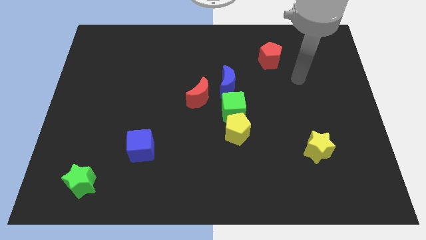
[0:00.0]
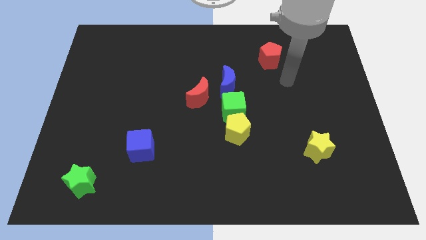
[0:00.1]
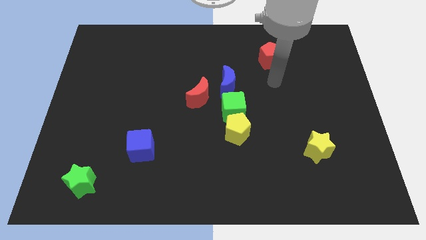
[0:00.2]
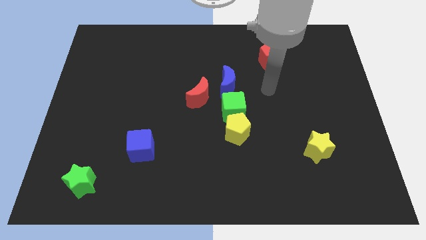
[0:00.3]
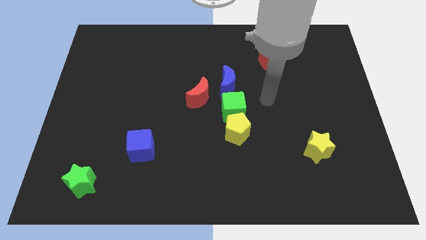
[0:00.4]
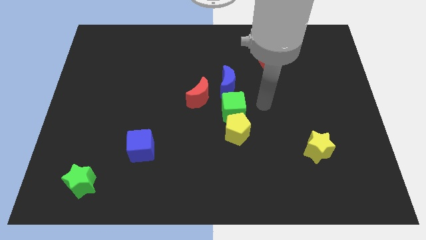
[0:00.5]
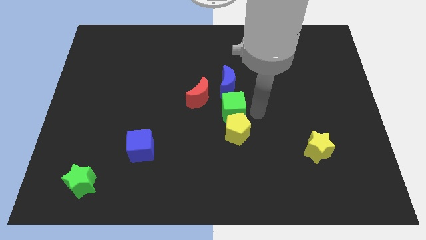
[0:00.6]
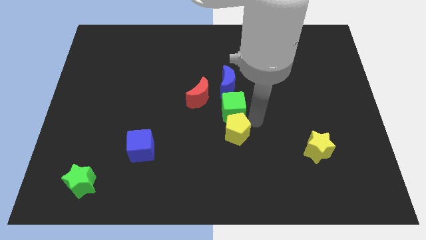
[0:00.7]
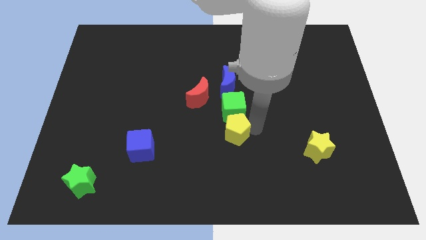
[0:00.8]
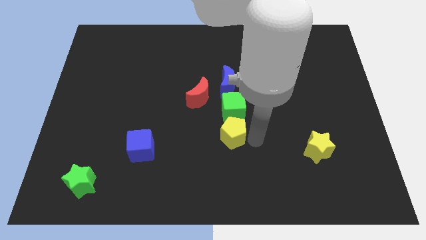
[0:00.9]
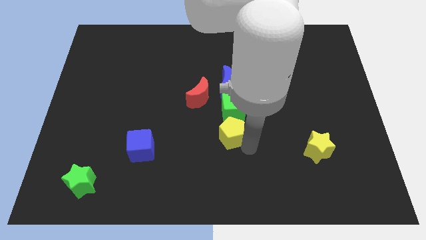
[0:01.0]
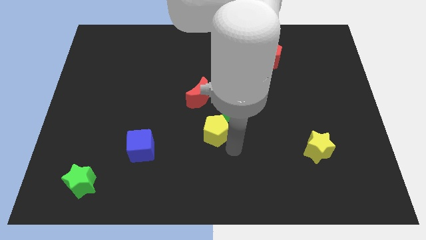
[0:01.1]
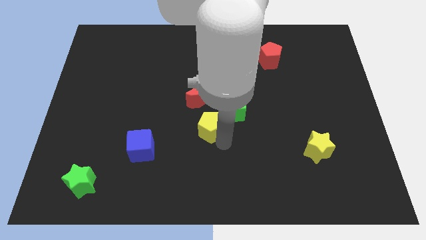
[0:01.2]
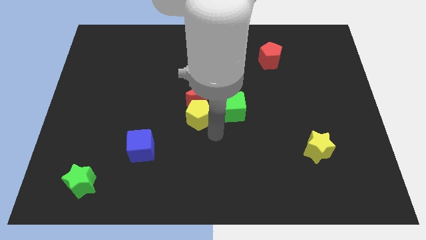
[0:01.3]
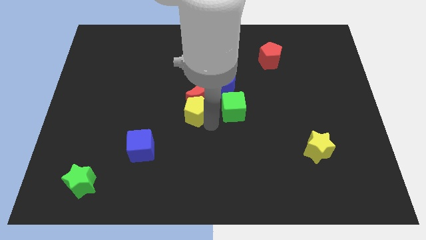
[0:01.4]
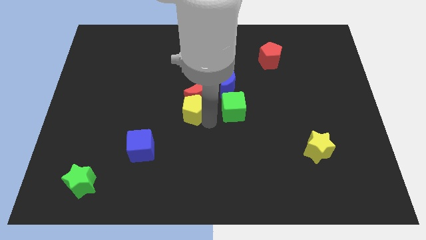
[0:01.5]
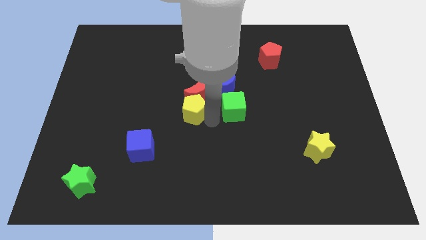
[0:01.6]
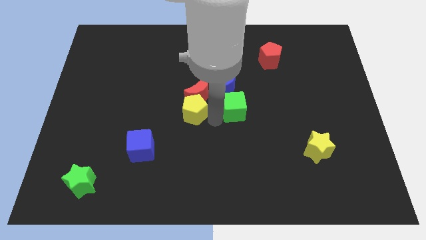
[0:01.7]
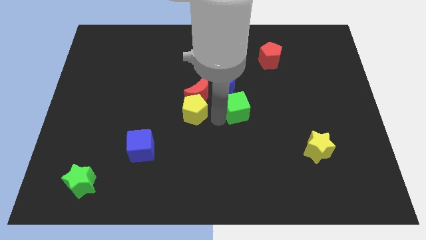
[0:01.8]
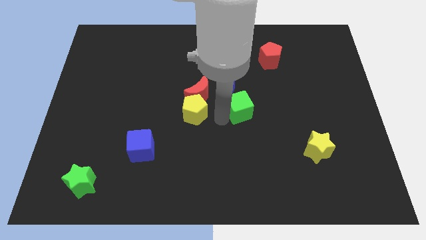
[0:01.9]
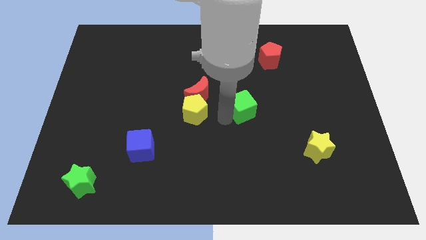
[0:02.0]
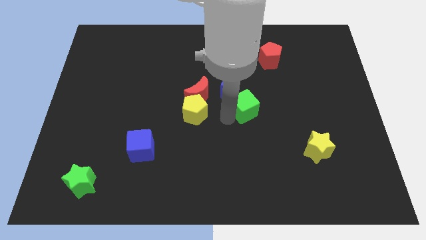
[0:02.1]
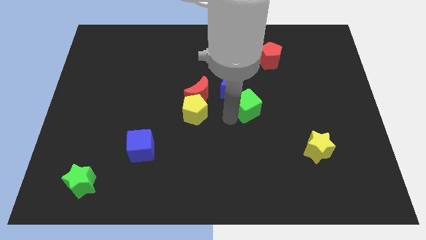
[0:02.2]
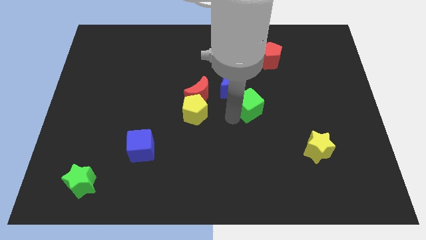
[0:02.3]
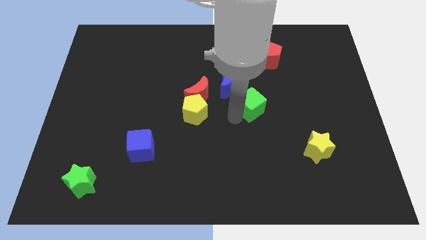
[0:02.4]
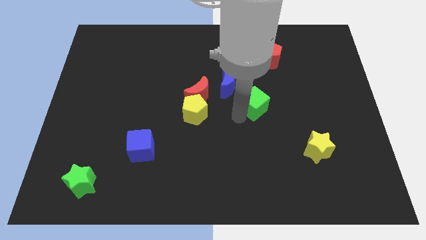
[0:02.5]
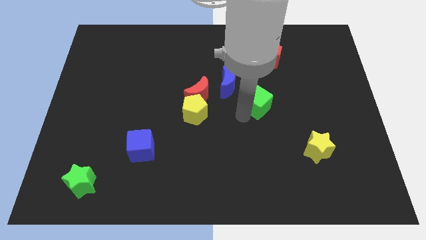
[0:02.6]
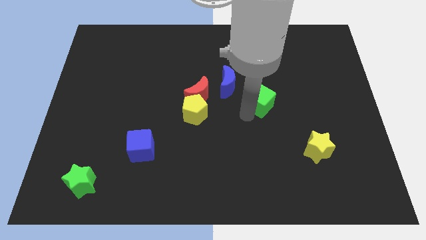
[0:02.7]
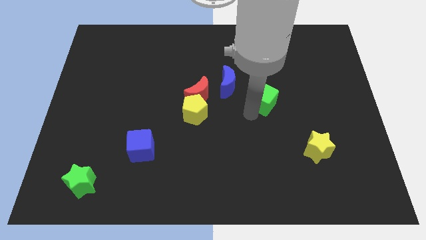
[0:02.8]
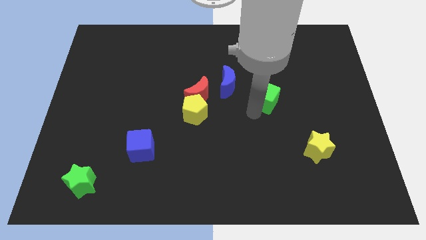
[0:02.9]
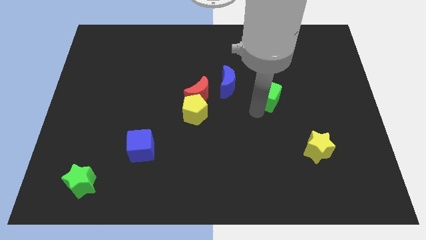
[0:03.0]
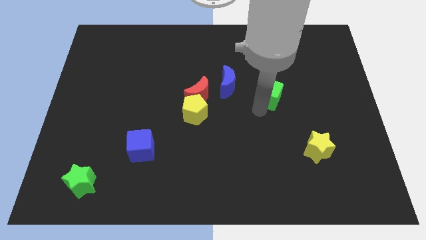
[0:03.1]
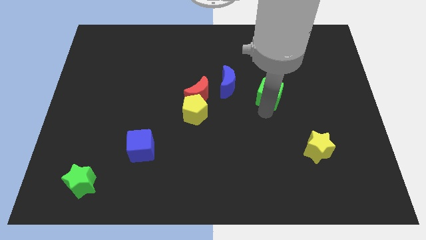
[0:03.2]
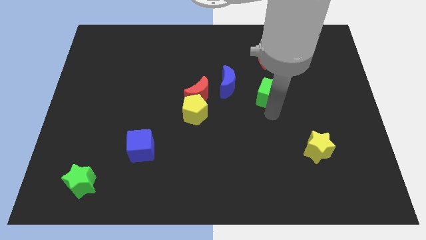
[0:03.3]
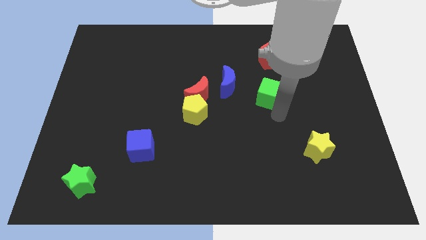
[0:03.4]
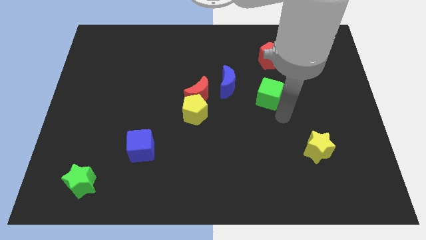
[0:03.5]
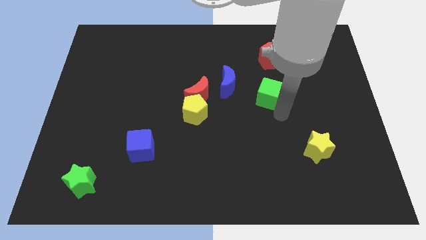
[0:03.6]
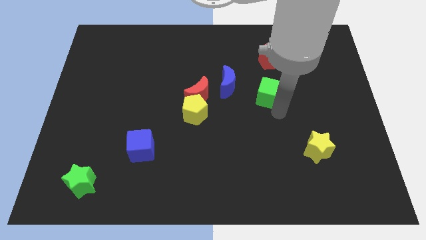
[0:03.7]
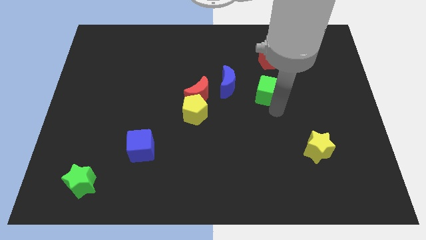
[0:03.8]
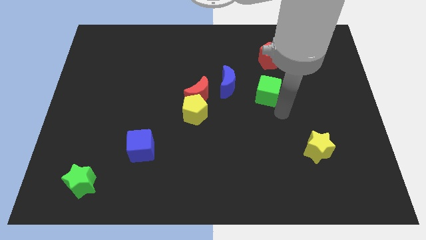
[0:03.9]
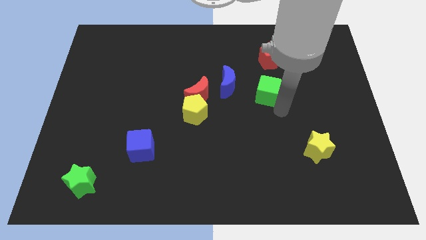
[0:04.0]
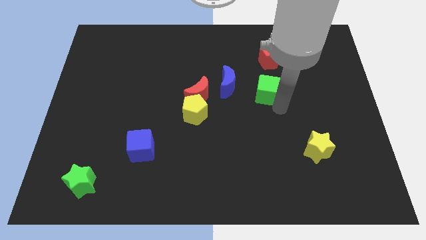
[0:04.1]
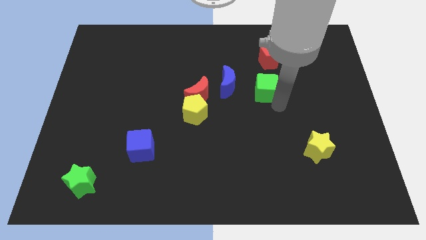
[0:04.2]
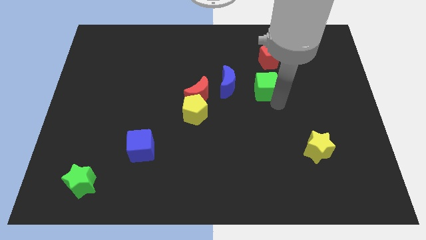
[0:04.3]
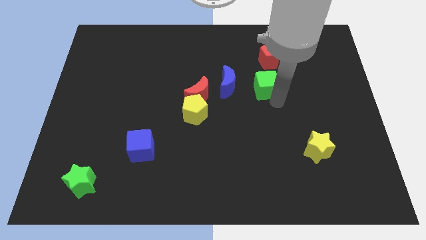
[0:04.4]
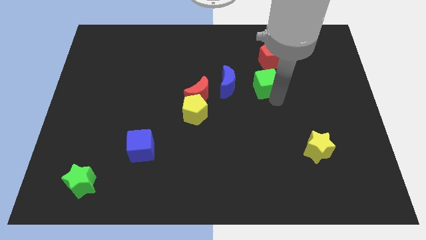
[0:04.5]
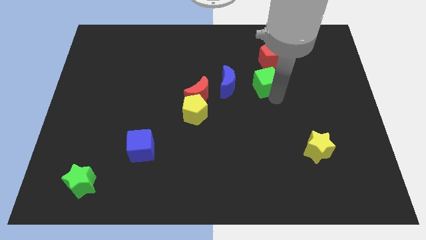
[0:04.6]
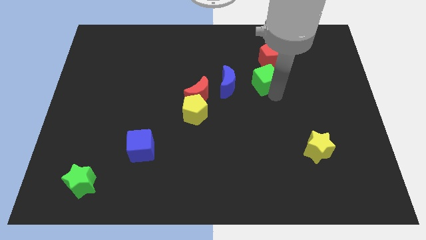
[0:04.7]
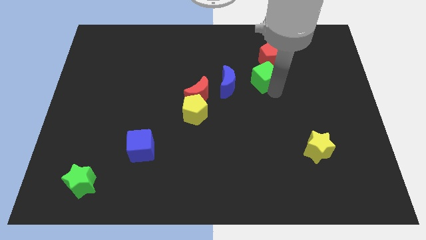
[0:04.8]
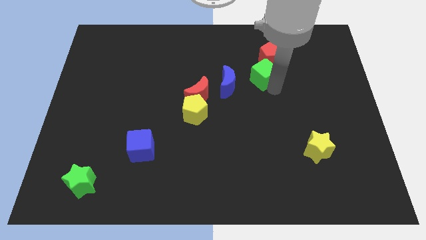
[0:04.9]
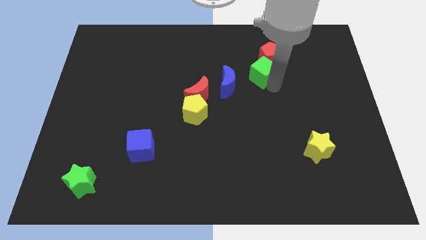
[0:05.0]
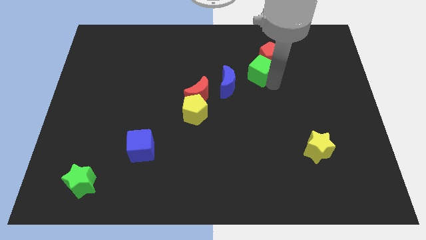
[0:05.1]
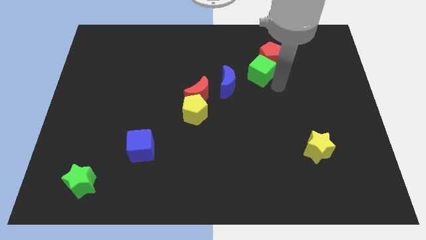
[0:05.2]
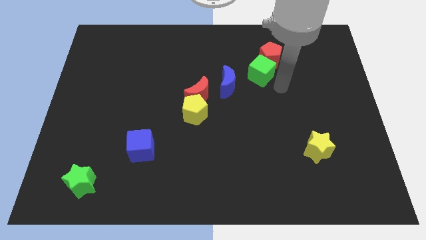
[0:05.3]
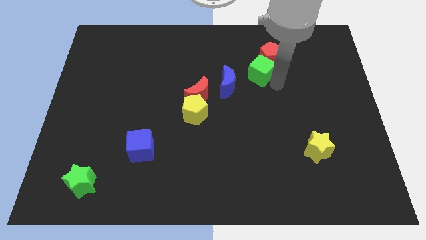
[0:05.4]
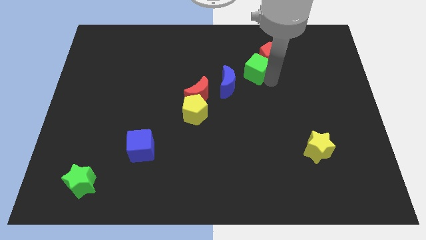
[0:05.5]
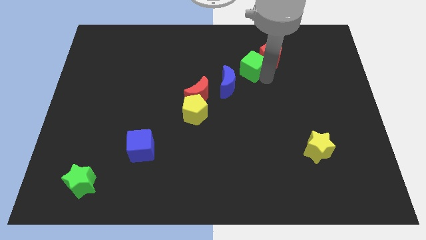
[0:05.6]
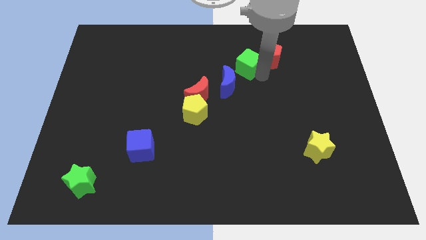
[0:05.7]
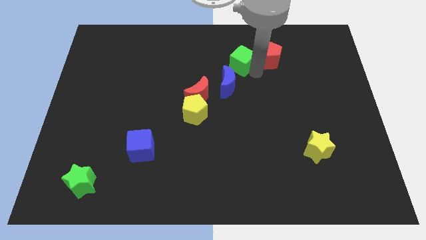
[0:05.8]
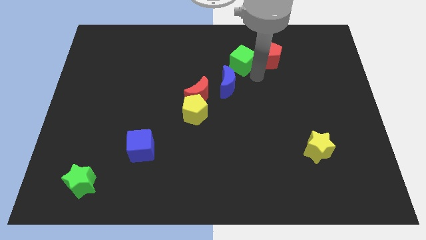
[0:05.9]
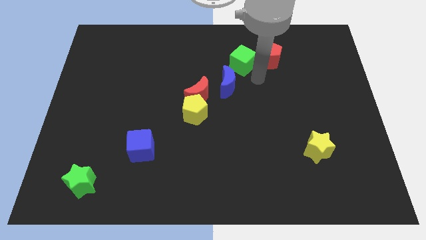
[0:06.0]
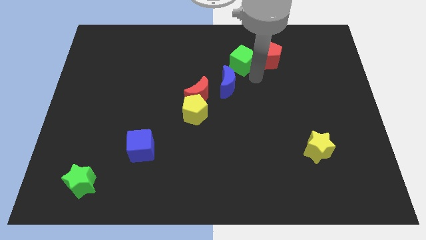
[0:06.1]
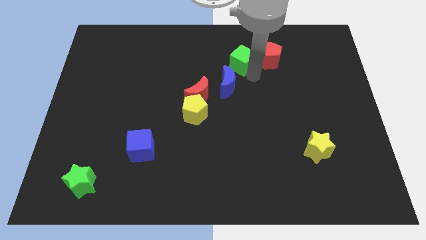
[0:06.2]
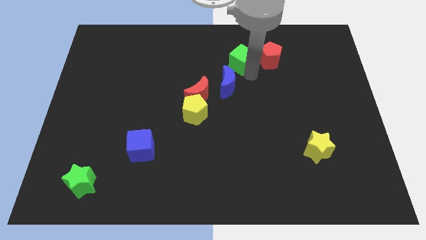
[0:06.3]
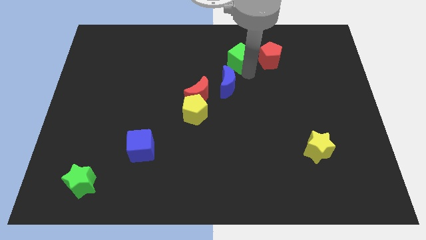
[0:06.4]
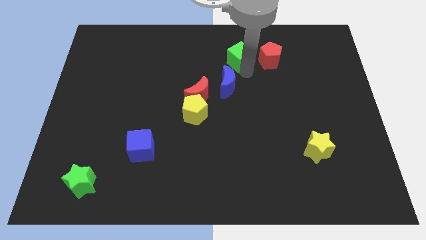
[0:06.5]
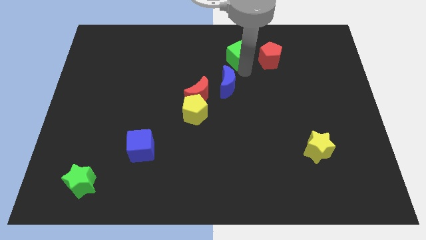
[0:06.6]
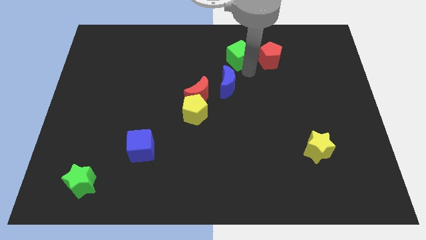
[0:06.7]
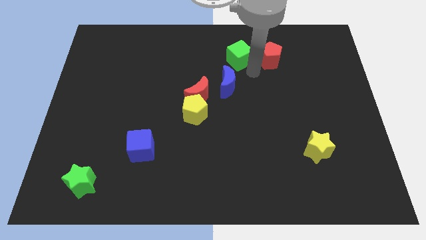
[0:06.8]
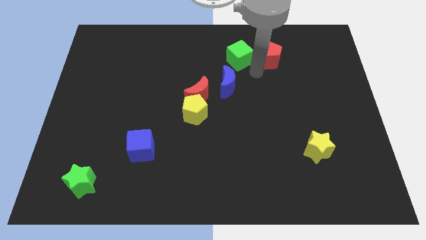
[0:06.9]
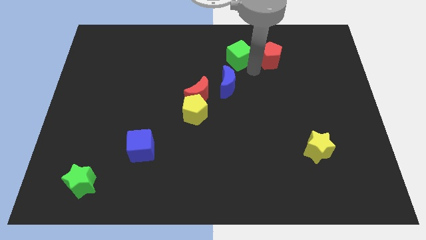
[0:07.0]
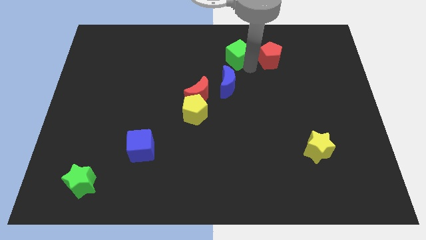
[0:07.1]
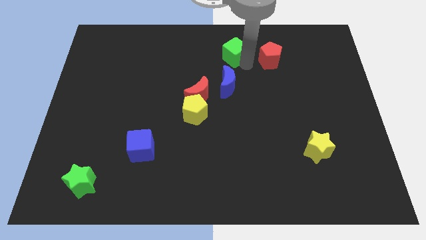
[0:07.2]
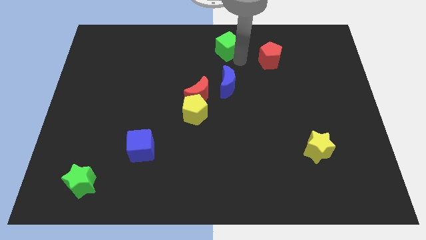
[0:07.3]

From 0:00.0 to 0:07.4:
slide the green cube to the towards your base
